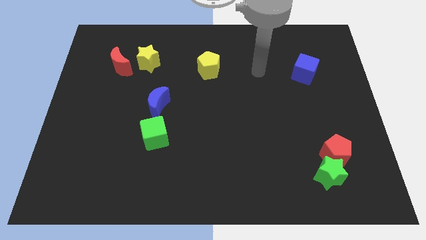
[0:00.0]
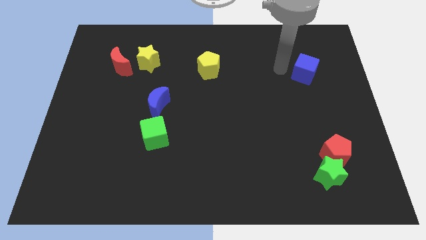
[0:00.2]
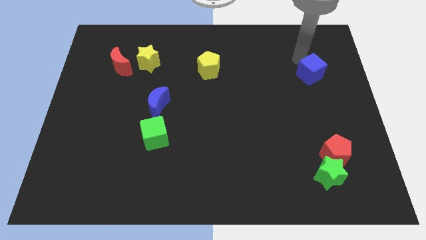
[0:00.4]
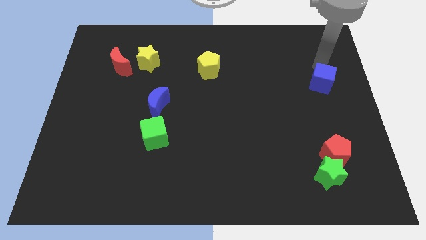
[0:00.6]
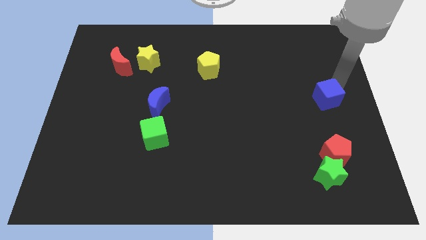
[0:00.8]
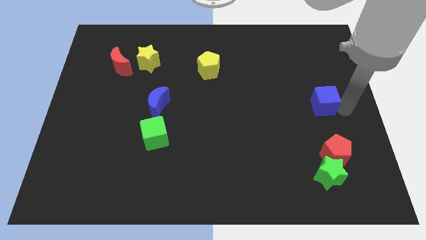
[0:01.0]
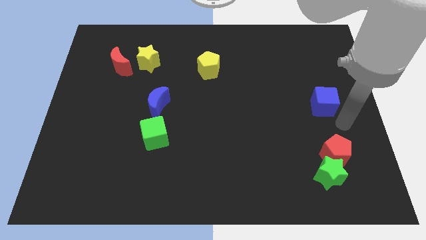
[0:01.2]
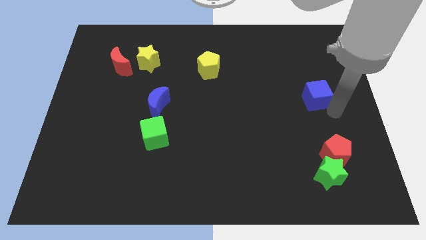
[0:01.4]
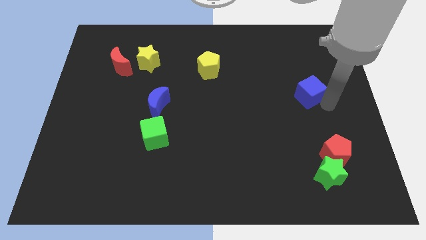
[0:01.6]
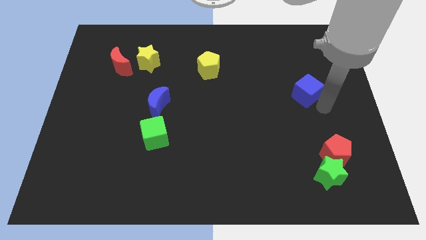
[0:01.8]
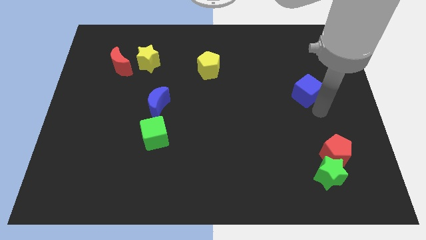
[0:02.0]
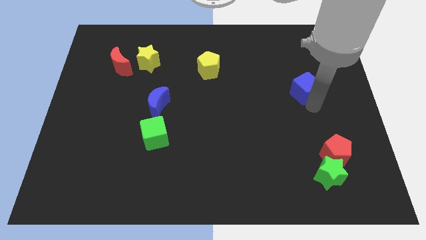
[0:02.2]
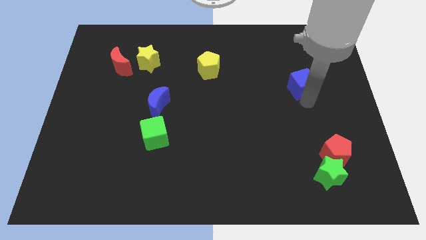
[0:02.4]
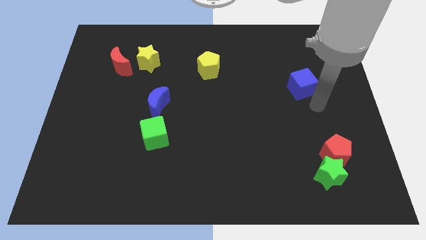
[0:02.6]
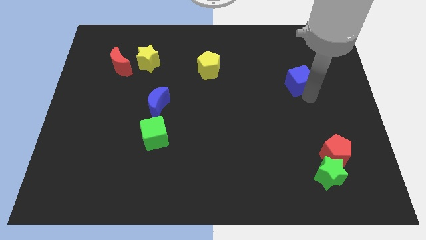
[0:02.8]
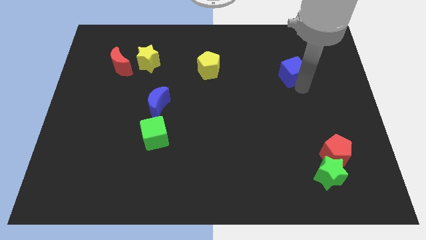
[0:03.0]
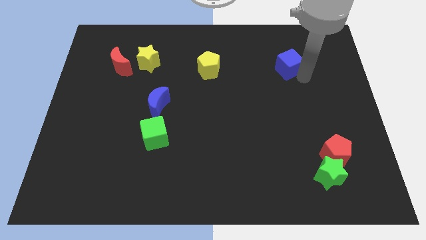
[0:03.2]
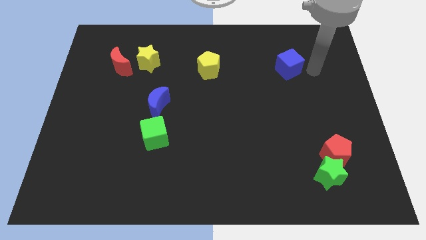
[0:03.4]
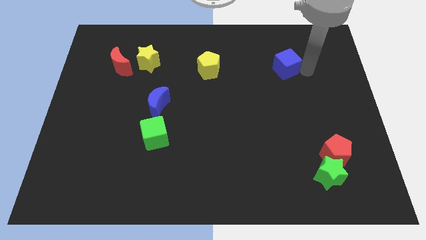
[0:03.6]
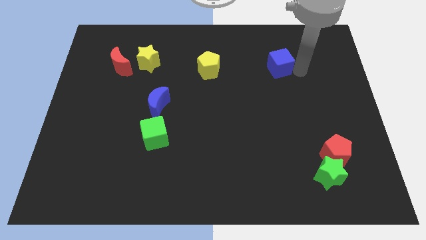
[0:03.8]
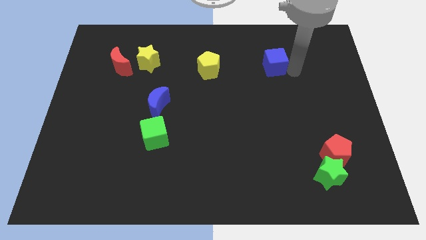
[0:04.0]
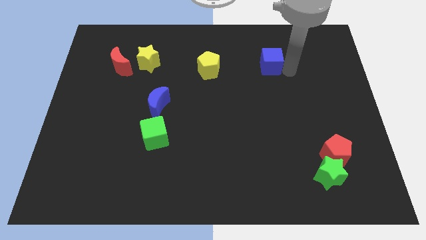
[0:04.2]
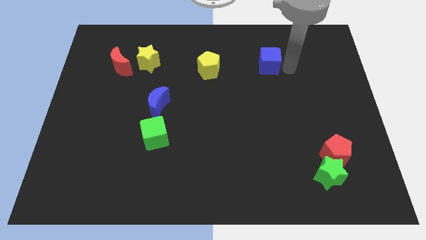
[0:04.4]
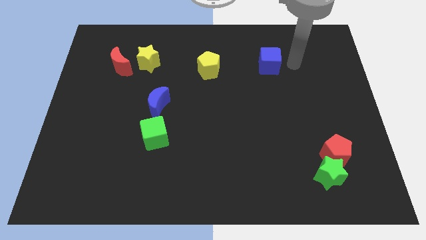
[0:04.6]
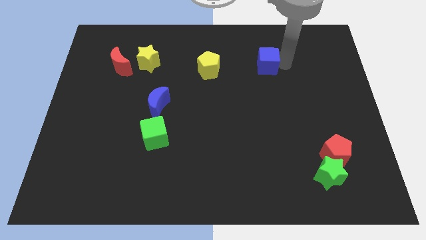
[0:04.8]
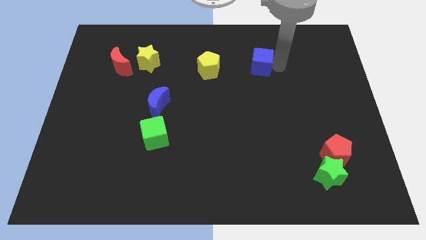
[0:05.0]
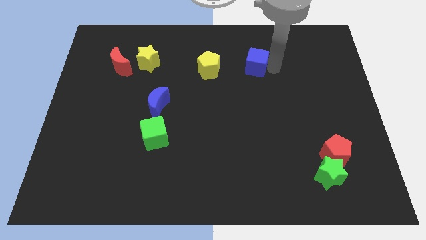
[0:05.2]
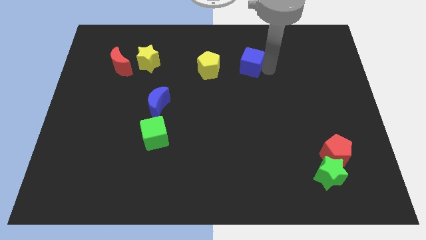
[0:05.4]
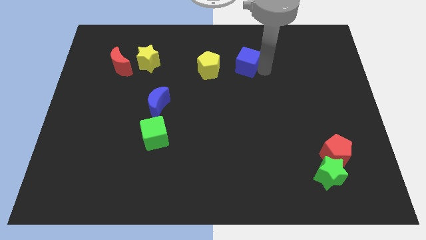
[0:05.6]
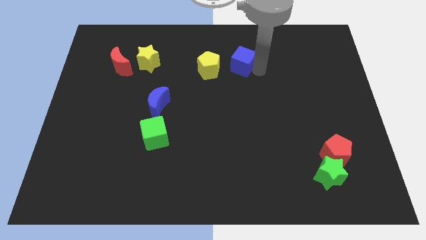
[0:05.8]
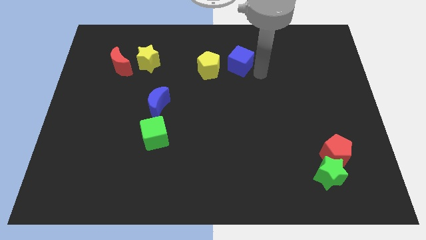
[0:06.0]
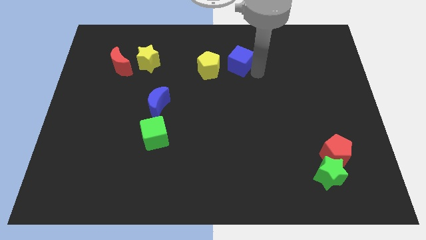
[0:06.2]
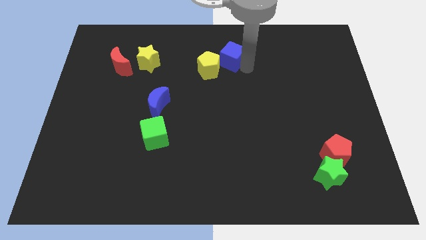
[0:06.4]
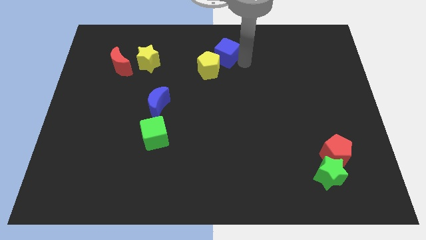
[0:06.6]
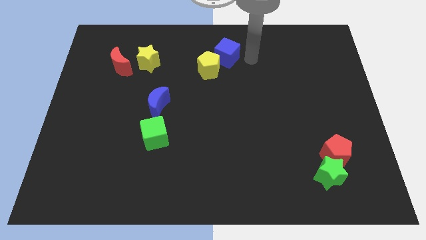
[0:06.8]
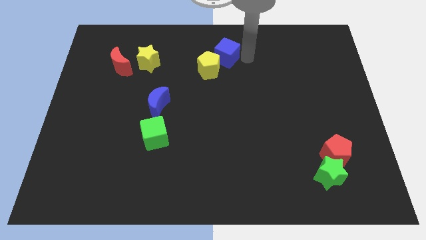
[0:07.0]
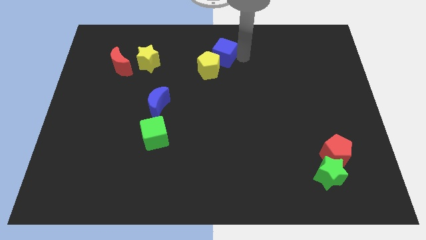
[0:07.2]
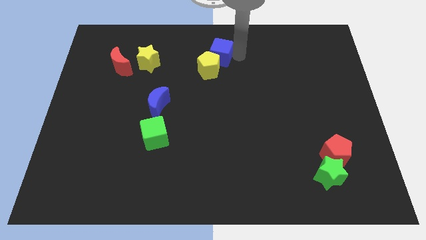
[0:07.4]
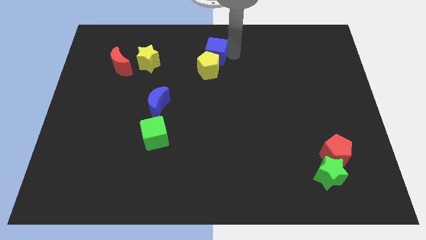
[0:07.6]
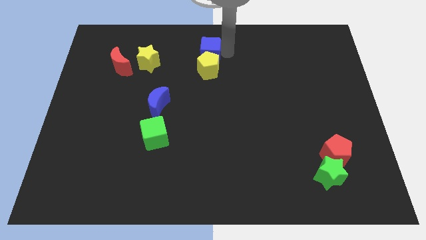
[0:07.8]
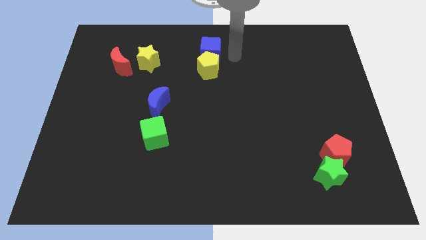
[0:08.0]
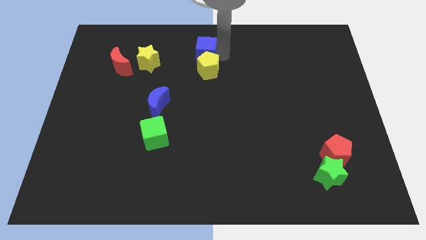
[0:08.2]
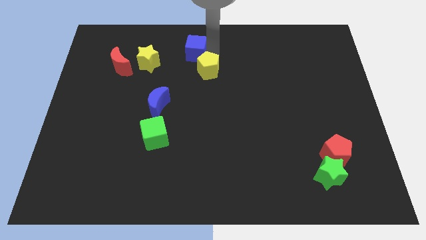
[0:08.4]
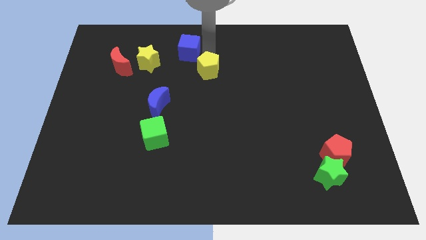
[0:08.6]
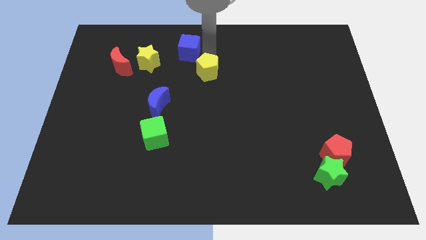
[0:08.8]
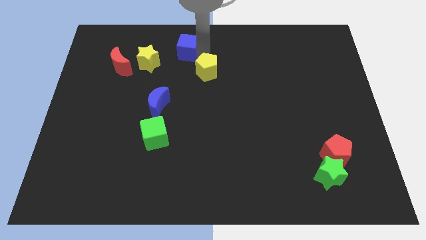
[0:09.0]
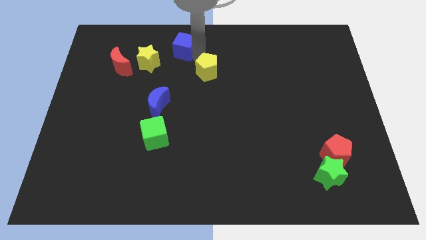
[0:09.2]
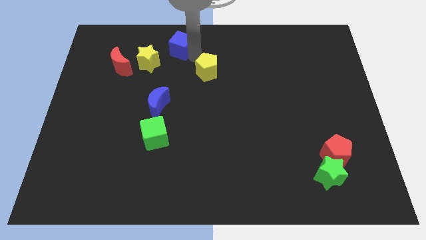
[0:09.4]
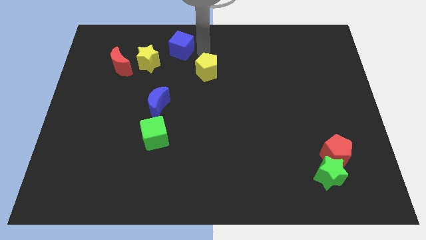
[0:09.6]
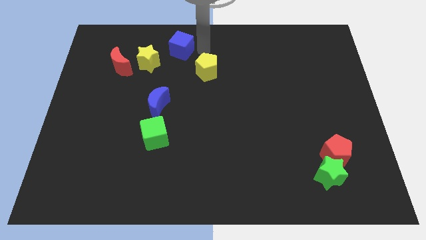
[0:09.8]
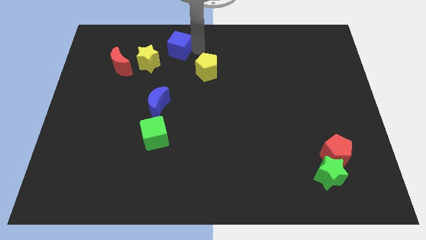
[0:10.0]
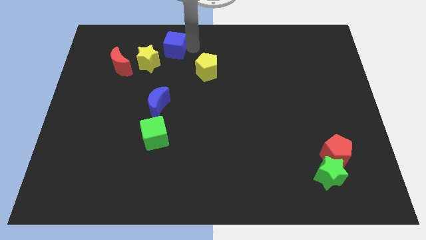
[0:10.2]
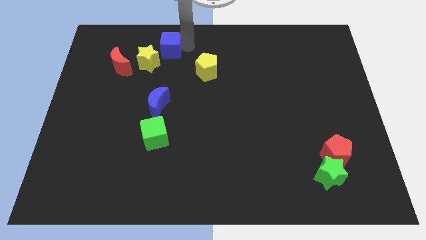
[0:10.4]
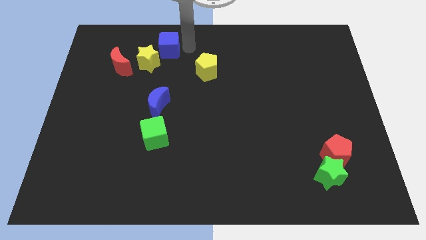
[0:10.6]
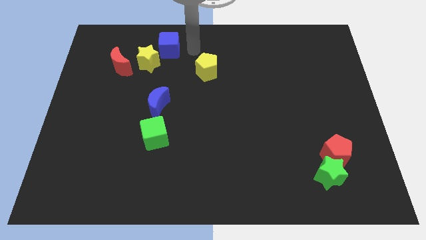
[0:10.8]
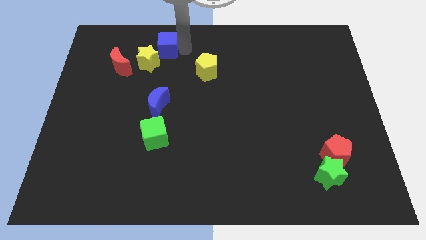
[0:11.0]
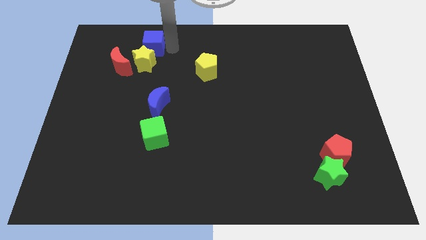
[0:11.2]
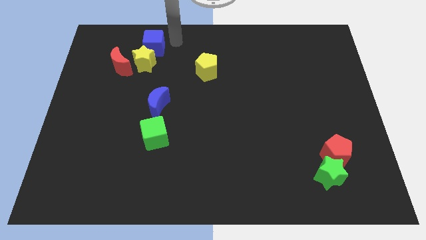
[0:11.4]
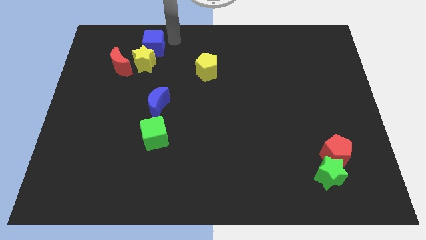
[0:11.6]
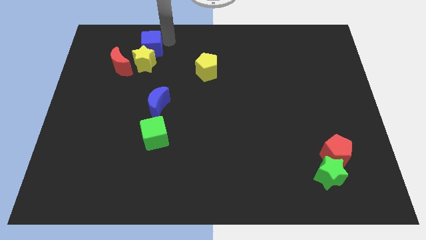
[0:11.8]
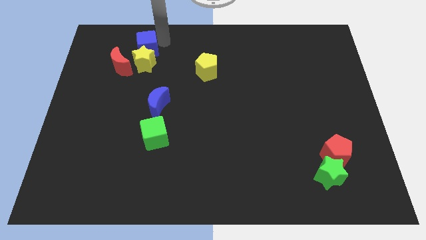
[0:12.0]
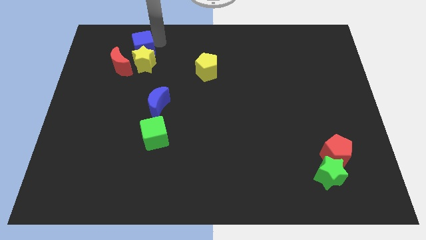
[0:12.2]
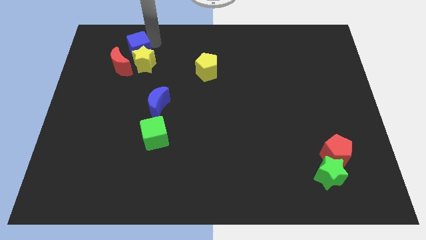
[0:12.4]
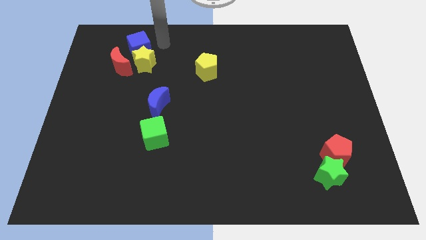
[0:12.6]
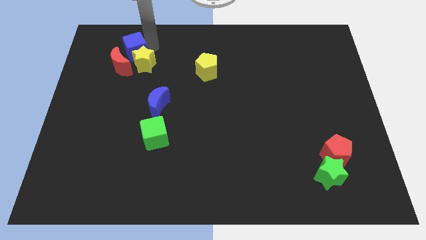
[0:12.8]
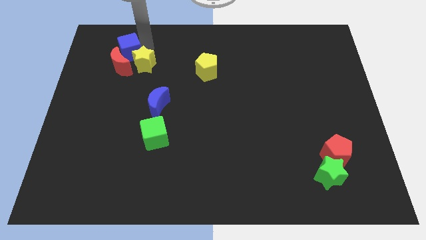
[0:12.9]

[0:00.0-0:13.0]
push the blue cube to the left side of the yellow star

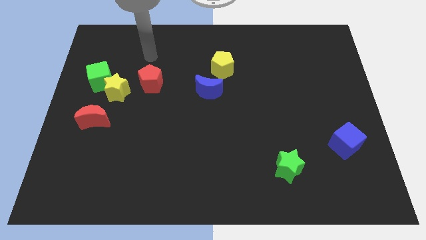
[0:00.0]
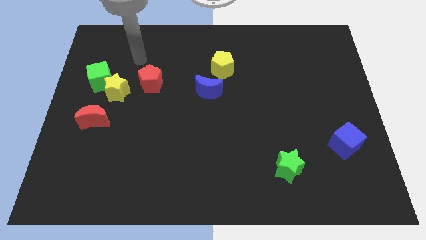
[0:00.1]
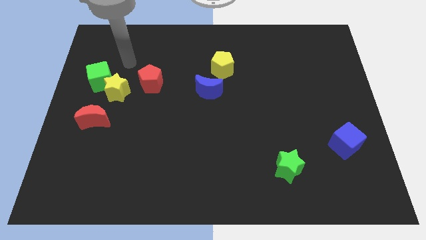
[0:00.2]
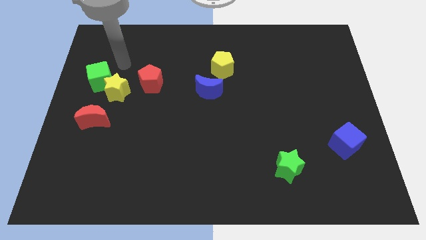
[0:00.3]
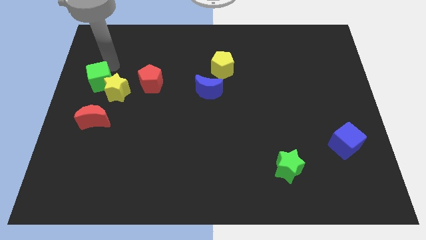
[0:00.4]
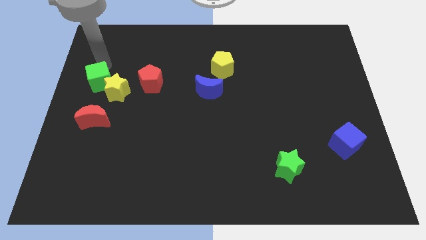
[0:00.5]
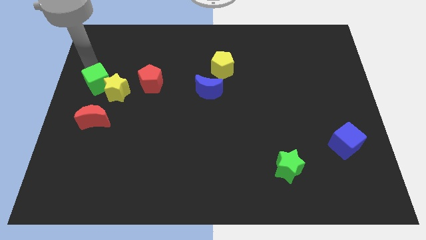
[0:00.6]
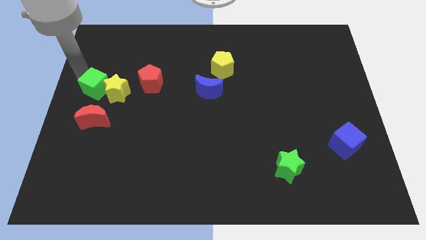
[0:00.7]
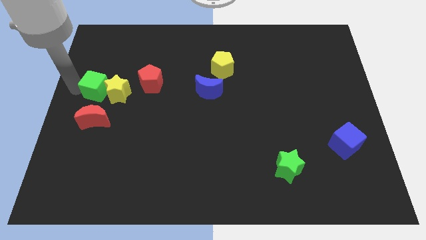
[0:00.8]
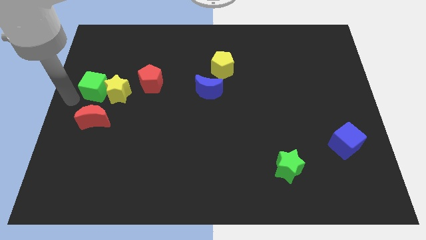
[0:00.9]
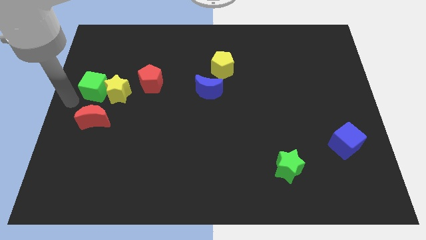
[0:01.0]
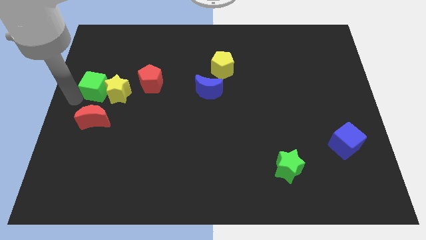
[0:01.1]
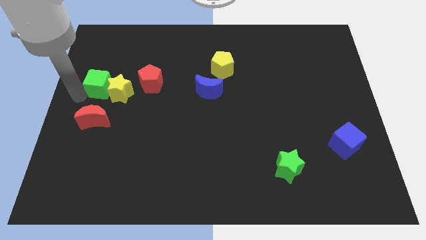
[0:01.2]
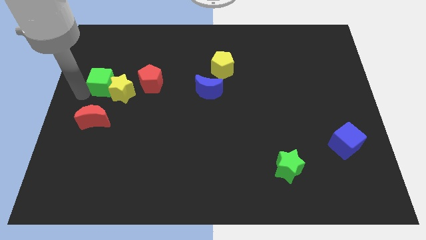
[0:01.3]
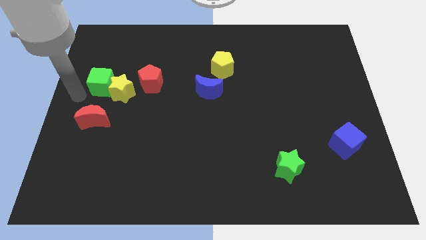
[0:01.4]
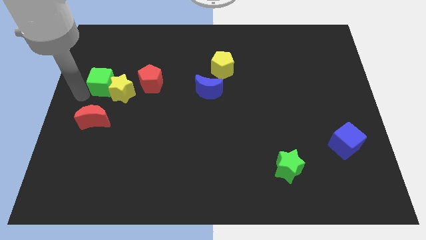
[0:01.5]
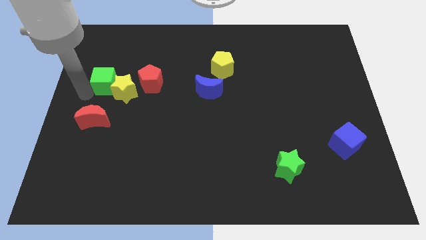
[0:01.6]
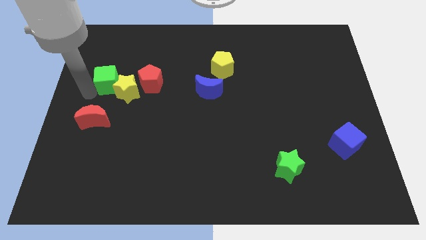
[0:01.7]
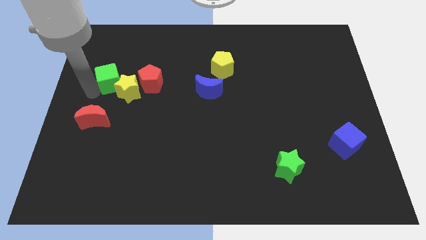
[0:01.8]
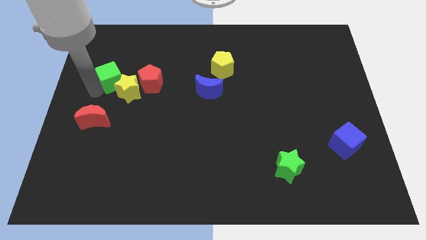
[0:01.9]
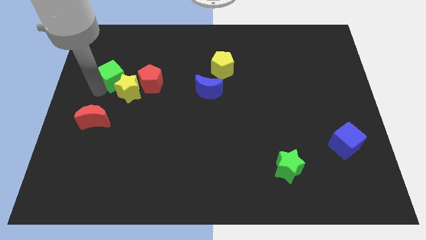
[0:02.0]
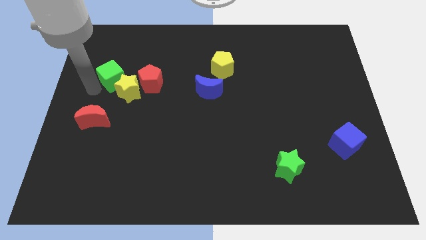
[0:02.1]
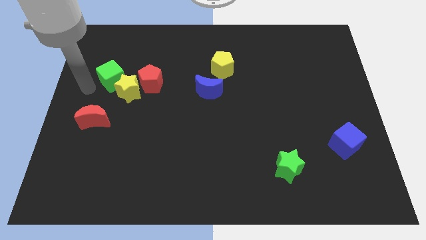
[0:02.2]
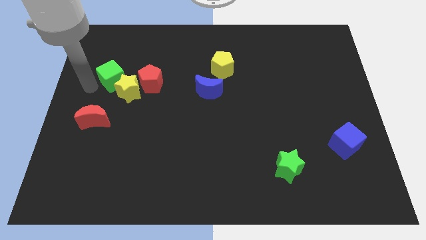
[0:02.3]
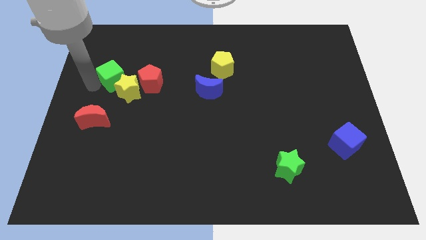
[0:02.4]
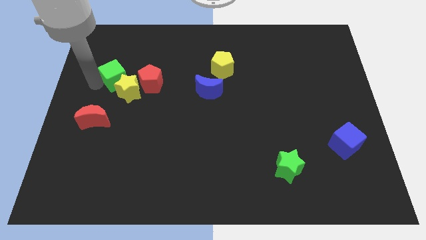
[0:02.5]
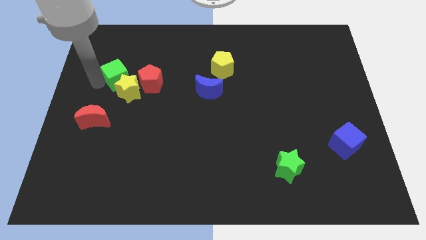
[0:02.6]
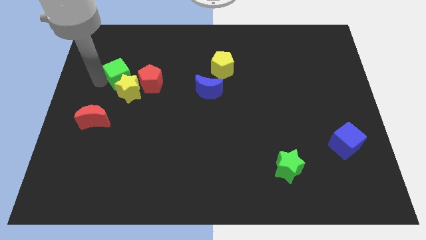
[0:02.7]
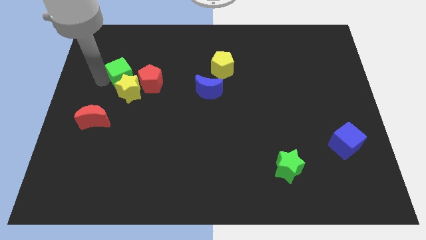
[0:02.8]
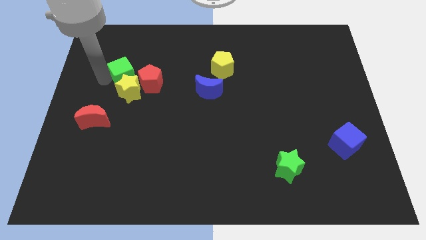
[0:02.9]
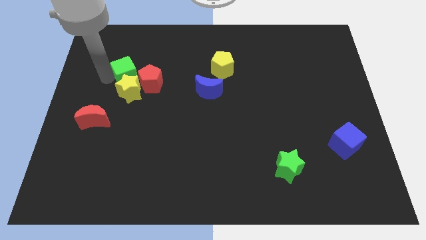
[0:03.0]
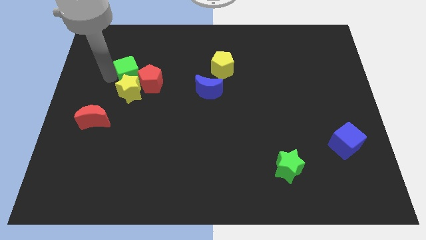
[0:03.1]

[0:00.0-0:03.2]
slide the green cube to the top right of the yellow star
